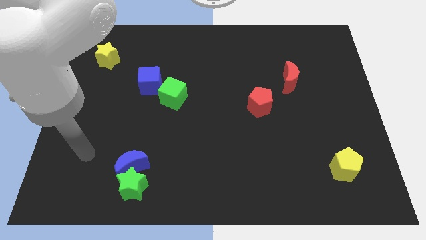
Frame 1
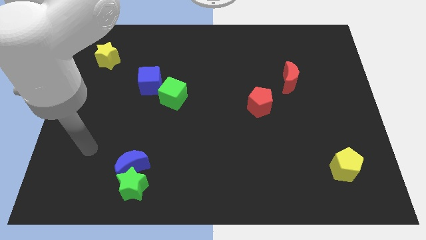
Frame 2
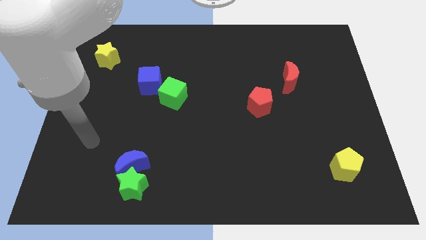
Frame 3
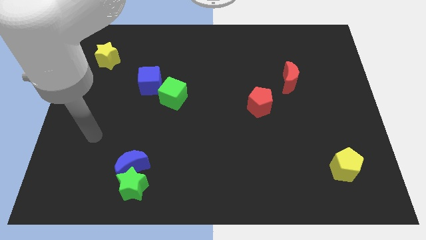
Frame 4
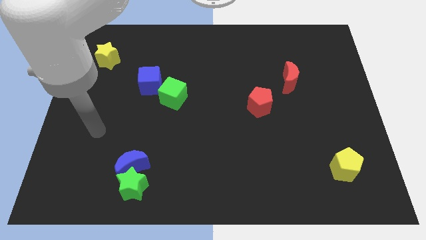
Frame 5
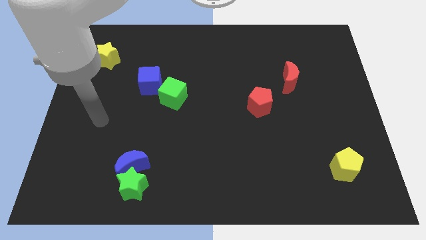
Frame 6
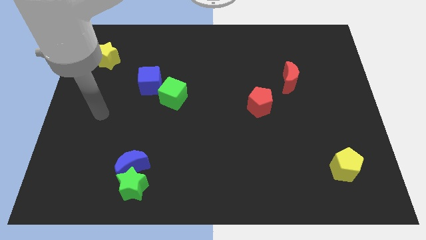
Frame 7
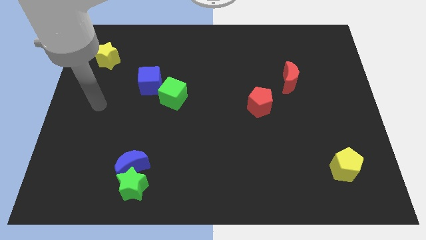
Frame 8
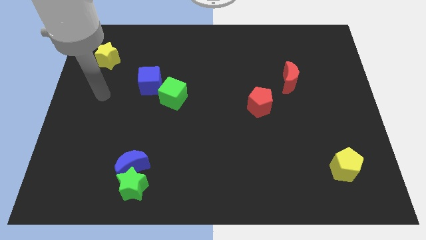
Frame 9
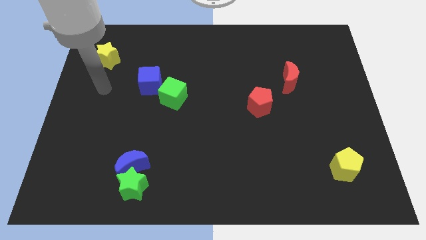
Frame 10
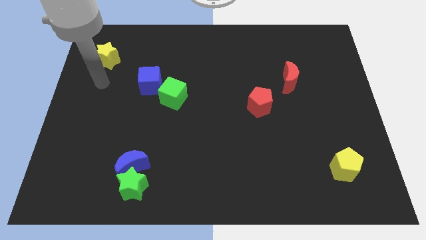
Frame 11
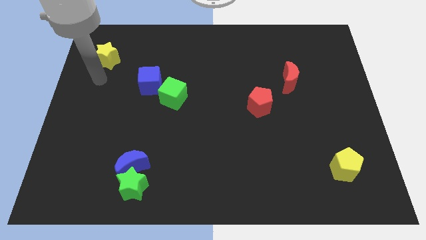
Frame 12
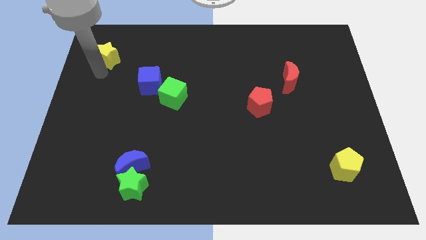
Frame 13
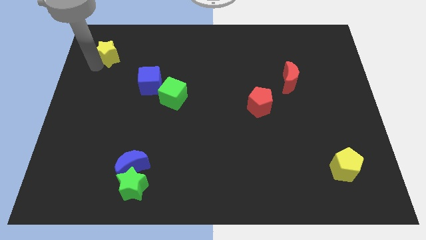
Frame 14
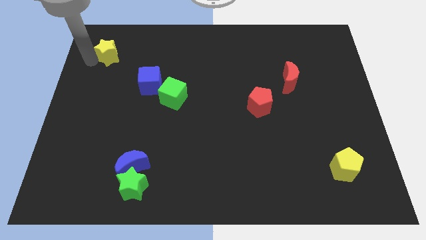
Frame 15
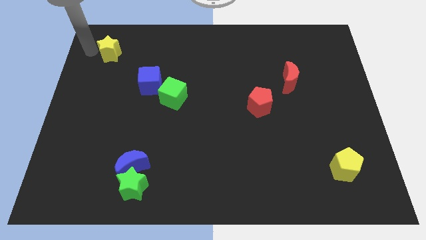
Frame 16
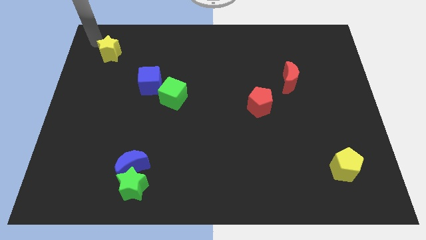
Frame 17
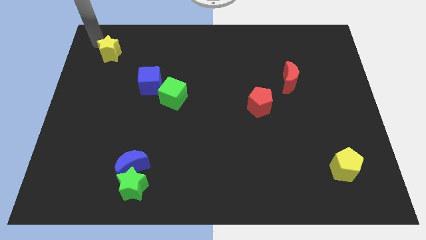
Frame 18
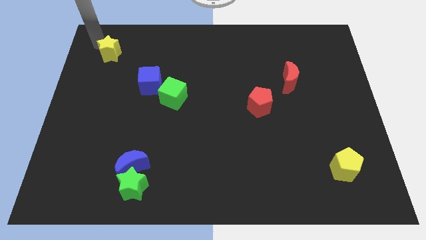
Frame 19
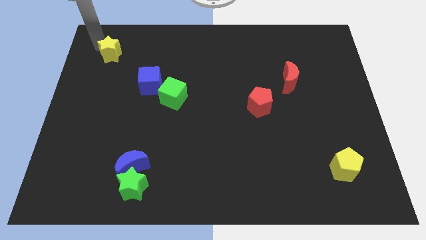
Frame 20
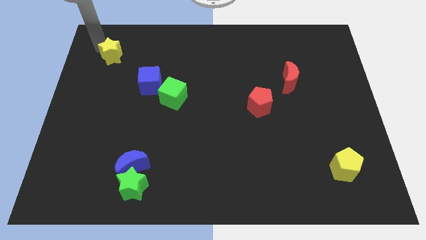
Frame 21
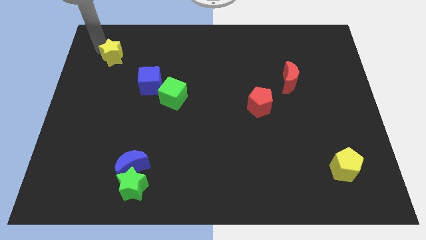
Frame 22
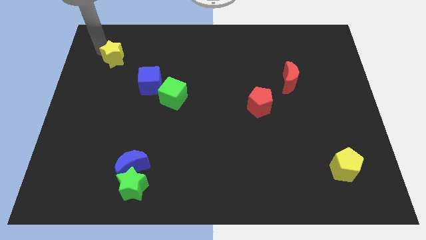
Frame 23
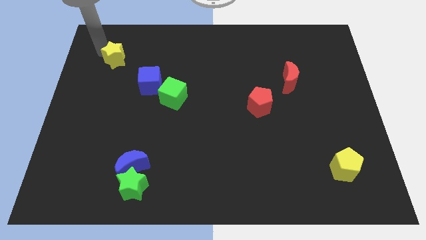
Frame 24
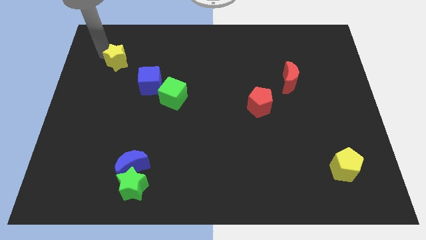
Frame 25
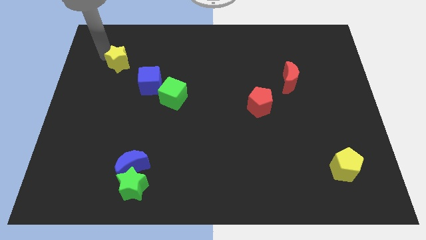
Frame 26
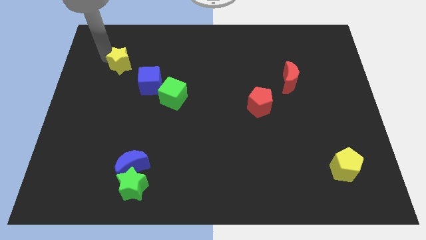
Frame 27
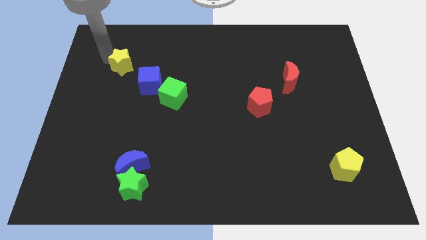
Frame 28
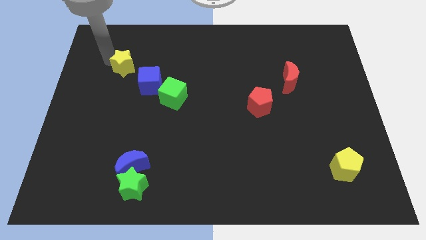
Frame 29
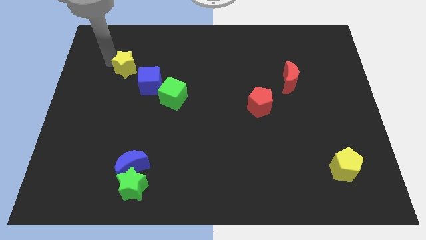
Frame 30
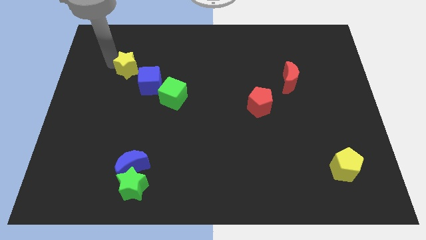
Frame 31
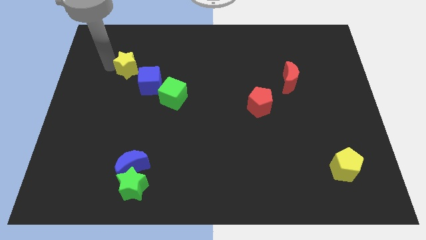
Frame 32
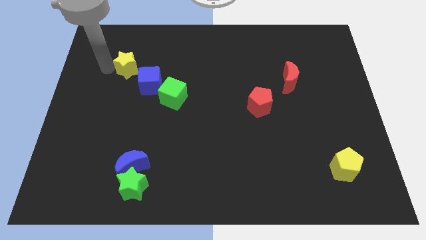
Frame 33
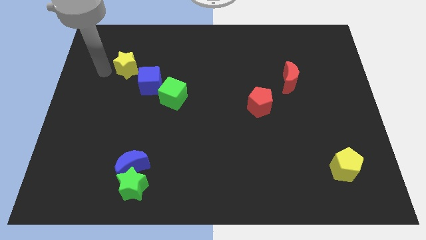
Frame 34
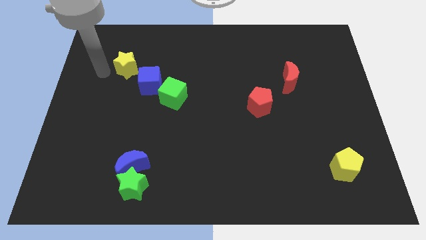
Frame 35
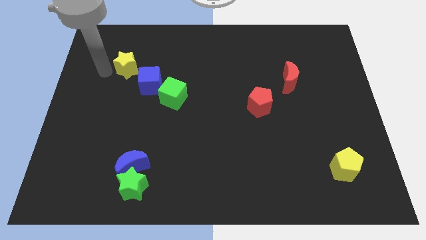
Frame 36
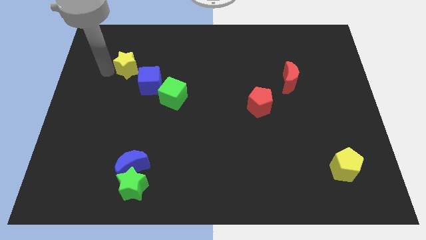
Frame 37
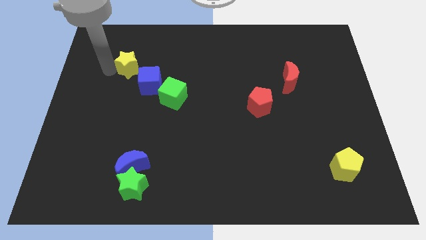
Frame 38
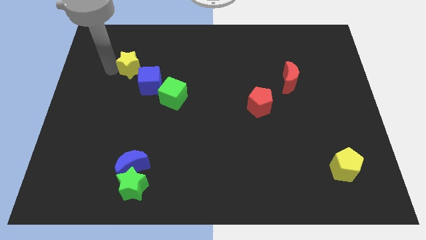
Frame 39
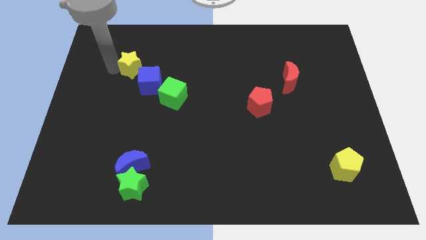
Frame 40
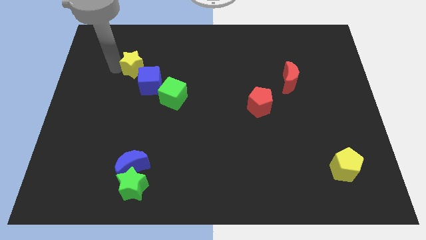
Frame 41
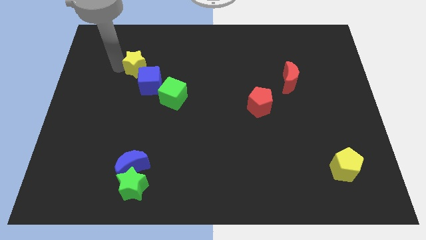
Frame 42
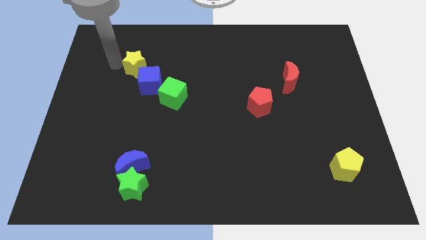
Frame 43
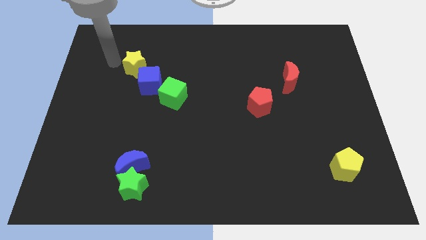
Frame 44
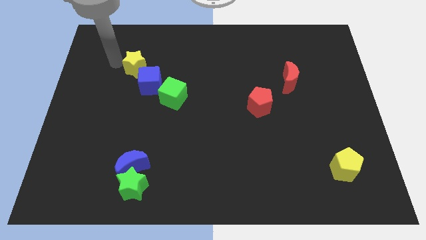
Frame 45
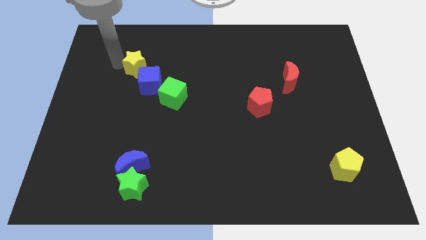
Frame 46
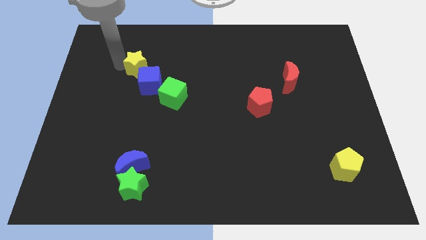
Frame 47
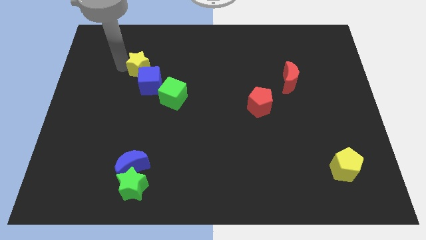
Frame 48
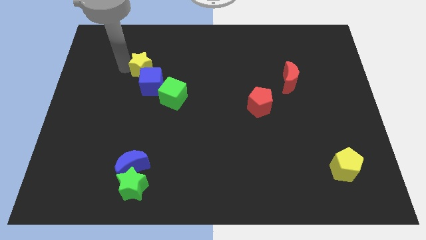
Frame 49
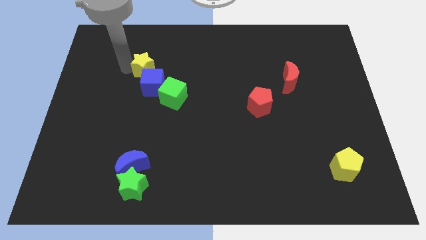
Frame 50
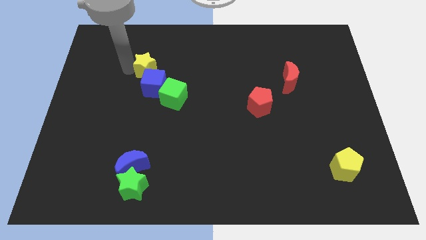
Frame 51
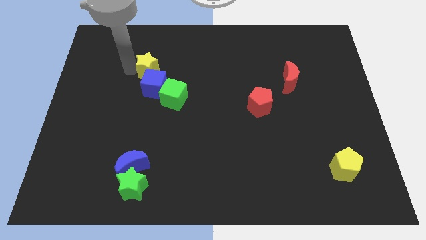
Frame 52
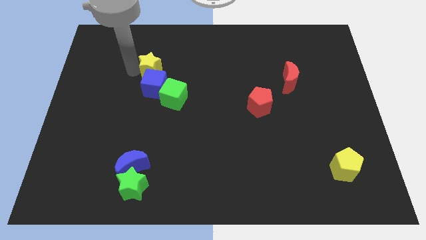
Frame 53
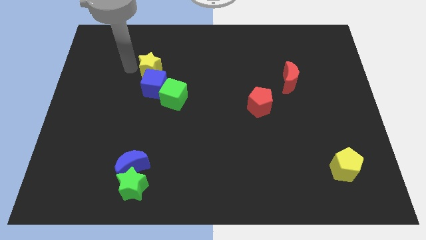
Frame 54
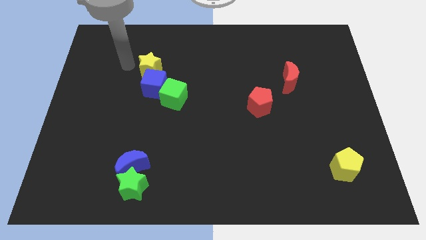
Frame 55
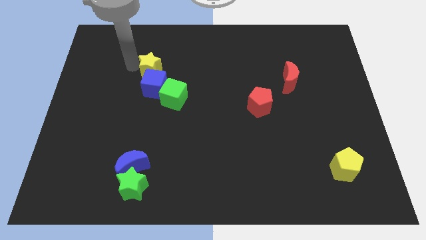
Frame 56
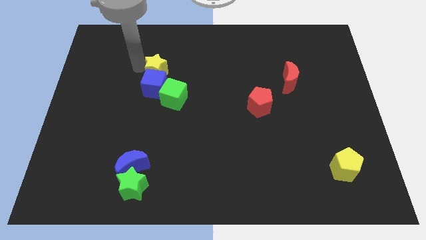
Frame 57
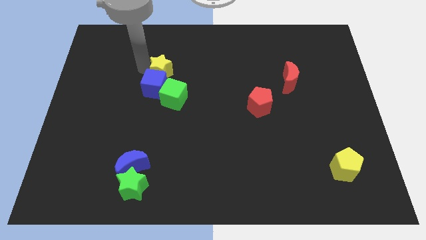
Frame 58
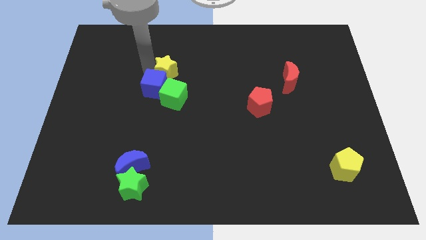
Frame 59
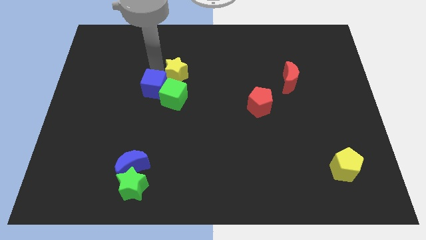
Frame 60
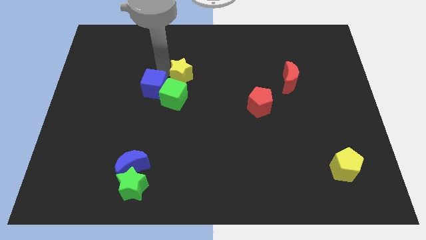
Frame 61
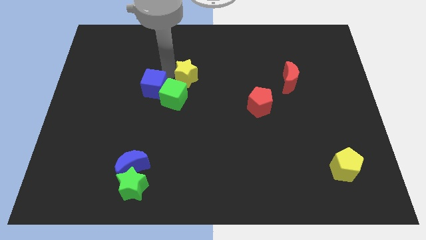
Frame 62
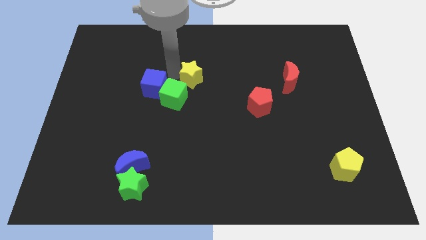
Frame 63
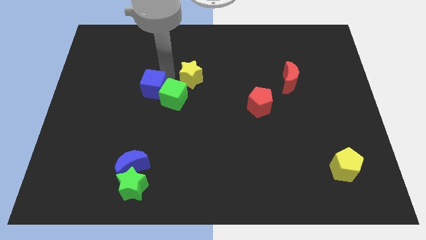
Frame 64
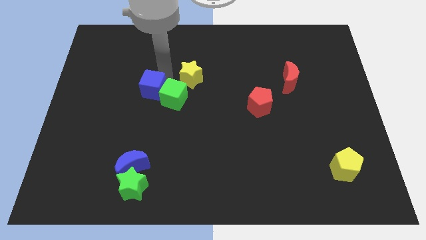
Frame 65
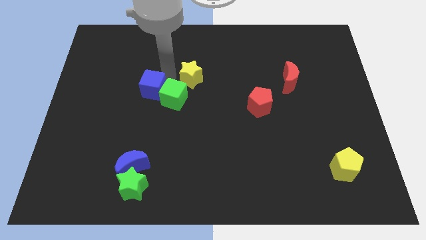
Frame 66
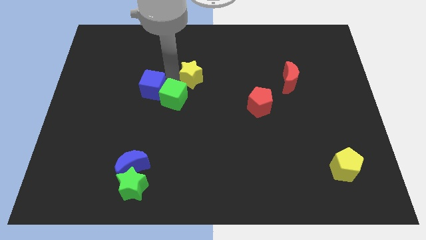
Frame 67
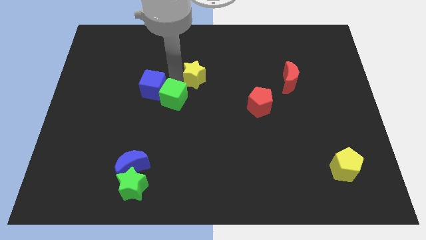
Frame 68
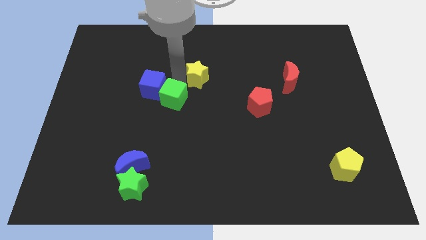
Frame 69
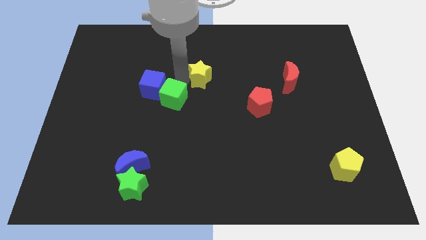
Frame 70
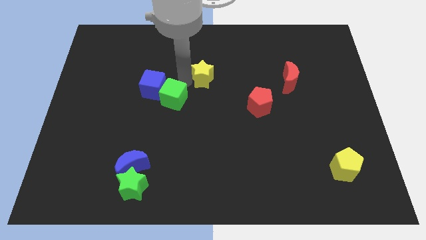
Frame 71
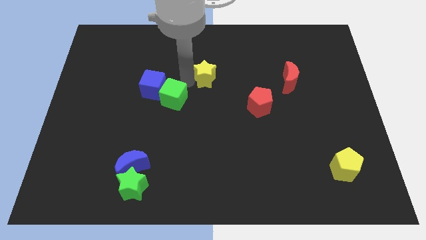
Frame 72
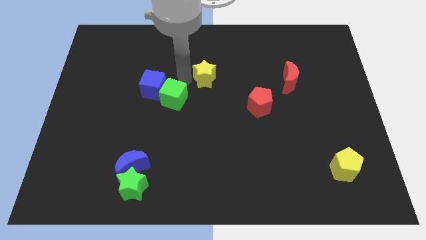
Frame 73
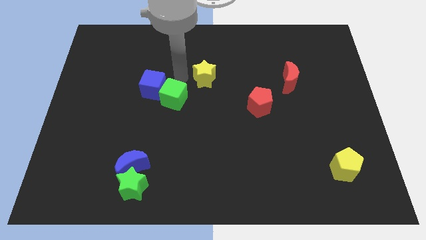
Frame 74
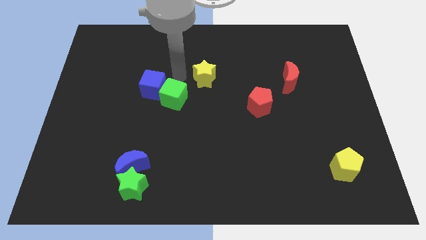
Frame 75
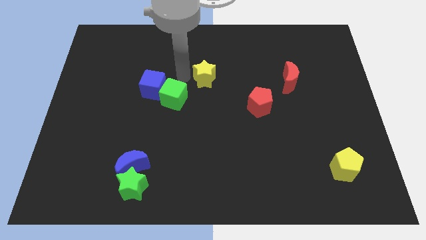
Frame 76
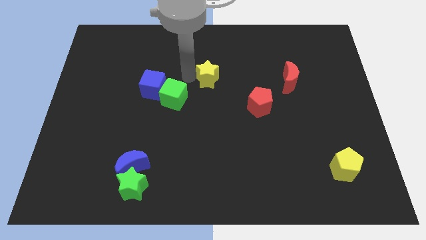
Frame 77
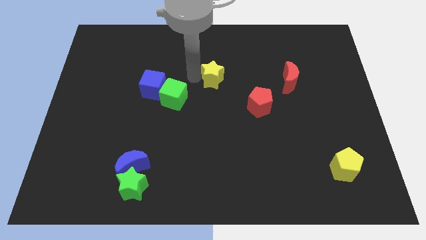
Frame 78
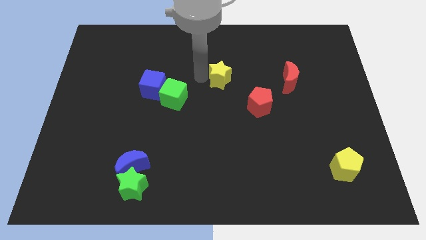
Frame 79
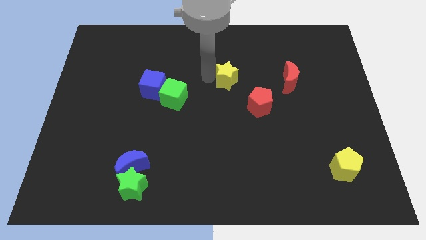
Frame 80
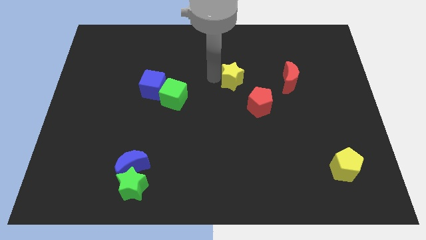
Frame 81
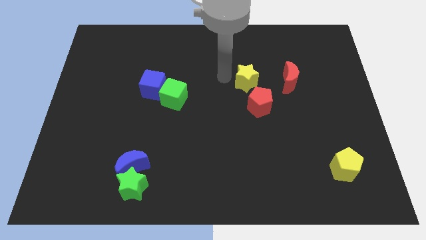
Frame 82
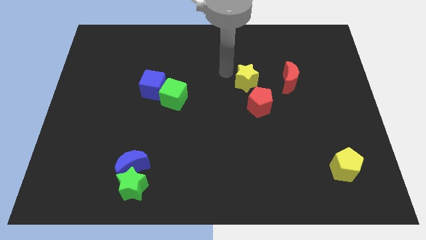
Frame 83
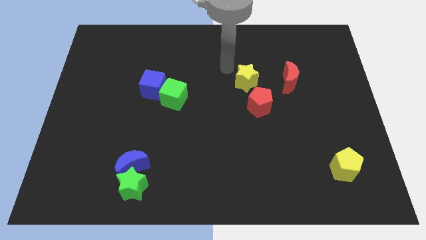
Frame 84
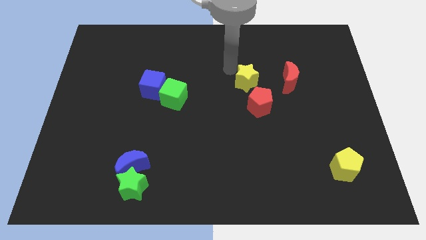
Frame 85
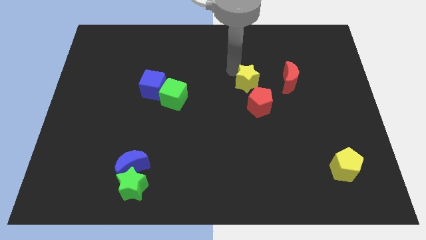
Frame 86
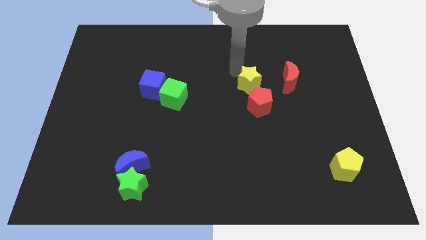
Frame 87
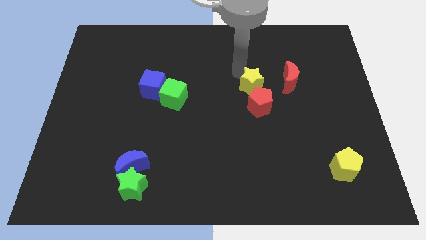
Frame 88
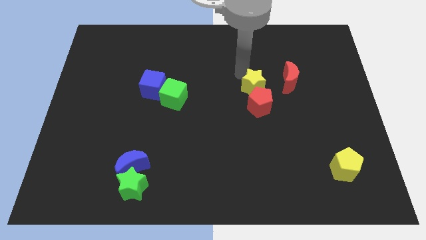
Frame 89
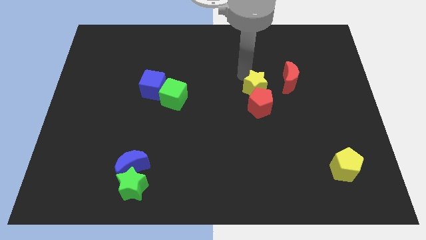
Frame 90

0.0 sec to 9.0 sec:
push the yellow star to the bottom left of the red moon
